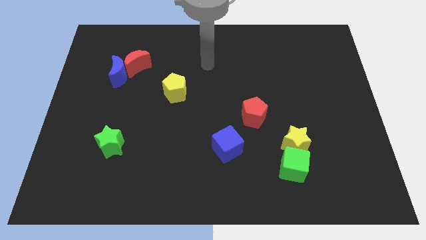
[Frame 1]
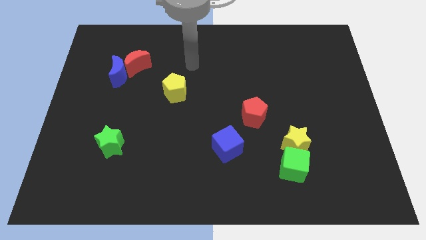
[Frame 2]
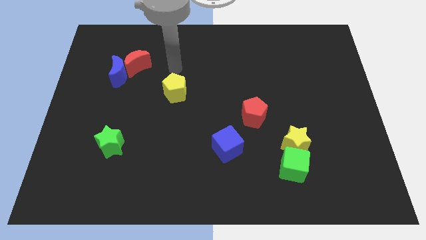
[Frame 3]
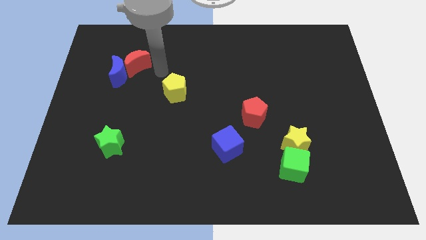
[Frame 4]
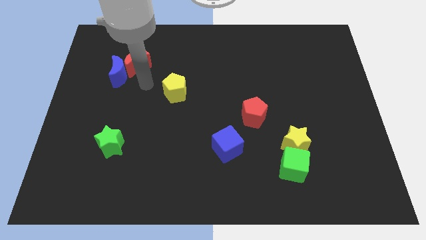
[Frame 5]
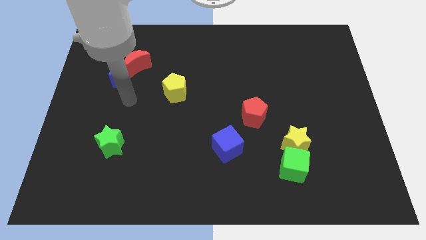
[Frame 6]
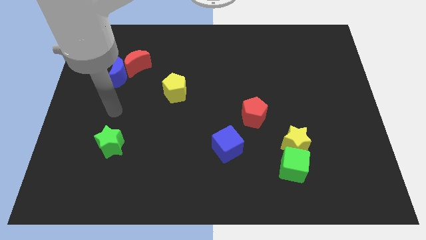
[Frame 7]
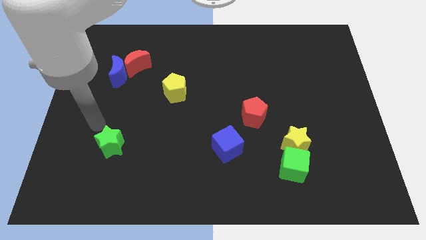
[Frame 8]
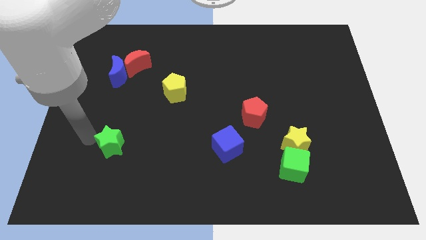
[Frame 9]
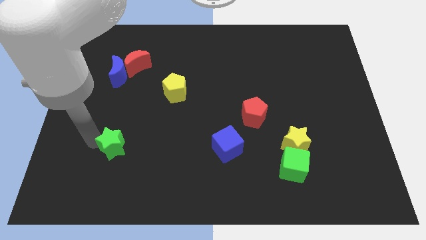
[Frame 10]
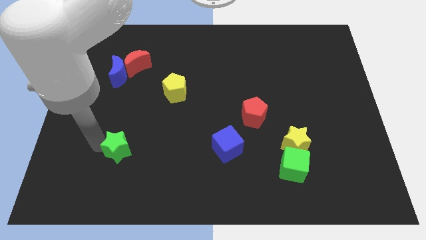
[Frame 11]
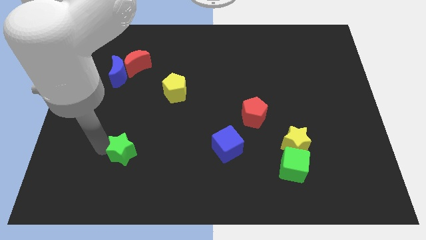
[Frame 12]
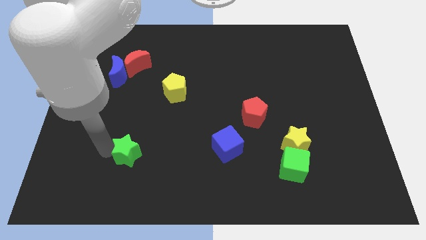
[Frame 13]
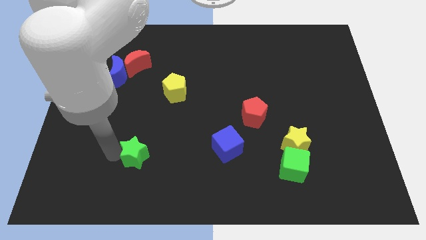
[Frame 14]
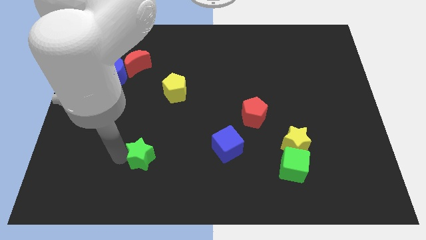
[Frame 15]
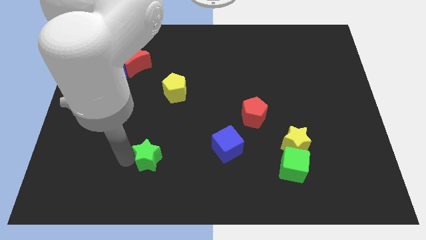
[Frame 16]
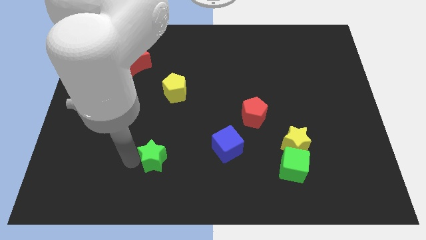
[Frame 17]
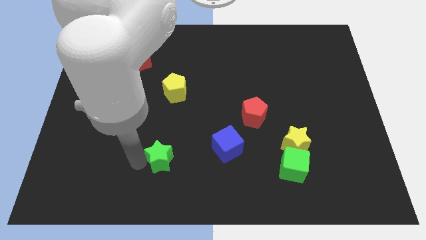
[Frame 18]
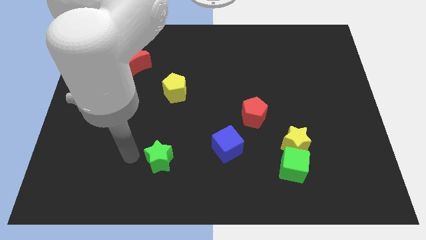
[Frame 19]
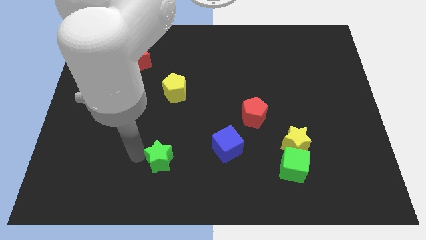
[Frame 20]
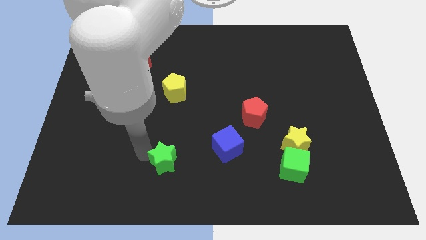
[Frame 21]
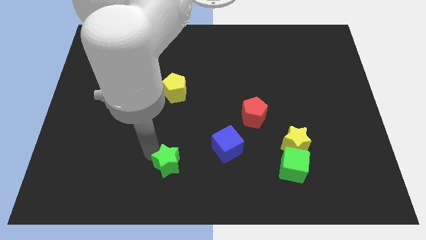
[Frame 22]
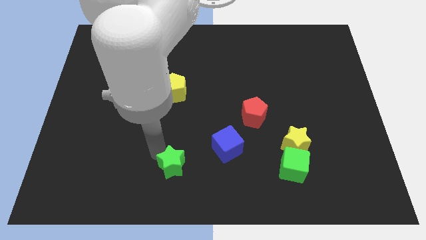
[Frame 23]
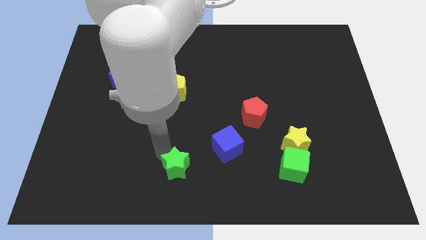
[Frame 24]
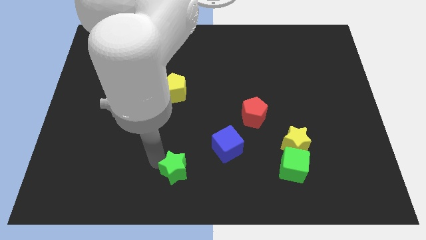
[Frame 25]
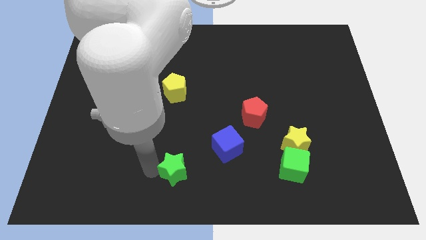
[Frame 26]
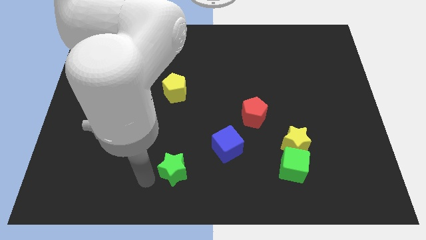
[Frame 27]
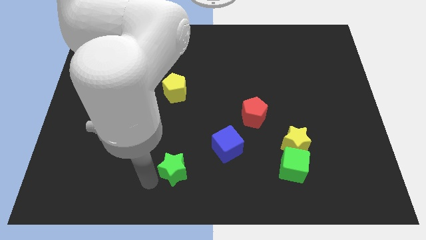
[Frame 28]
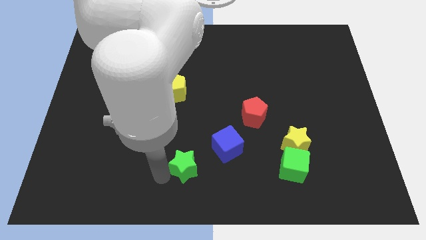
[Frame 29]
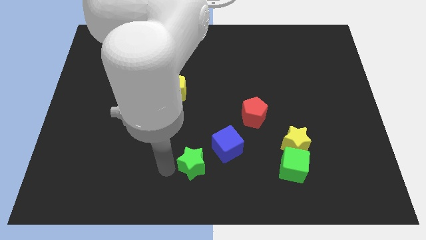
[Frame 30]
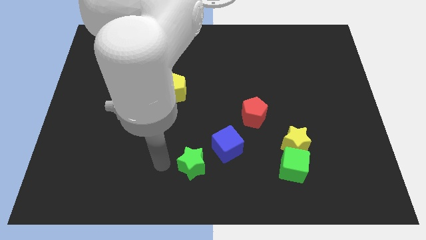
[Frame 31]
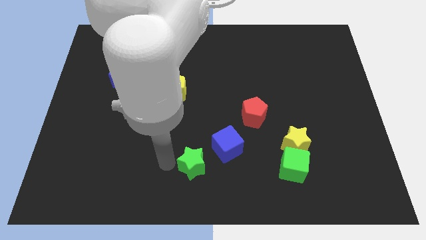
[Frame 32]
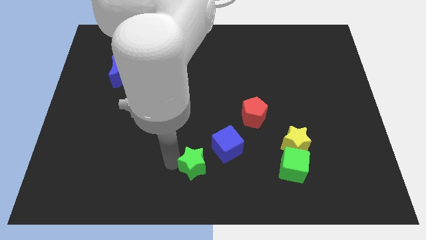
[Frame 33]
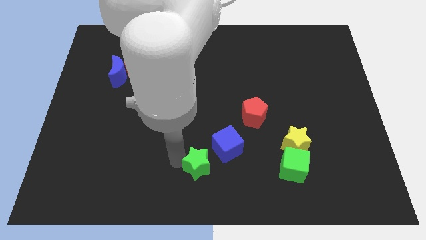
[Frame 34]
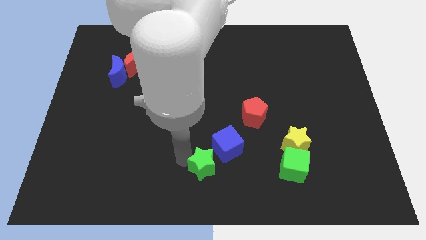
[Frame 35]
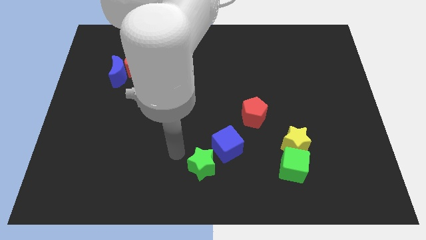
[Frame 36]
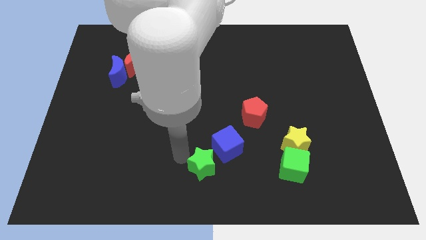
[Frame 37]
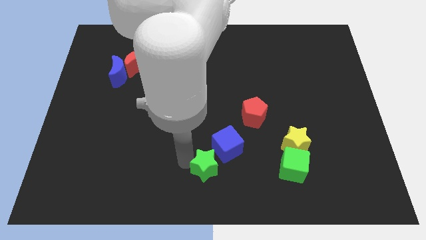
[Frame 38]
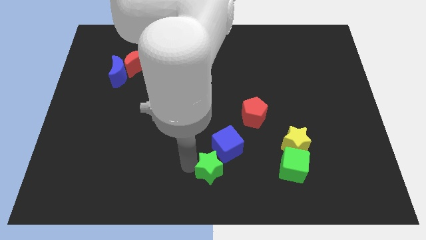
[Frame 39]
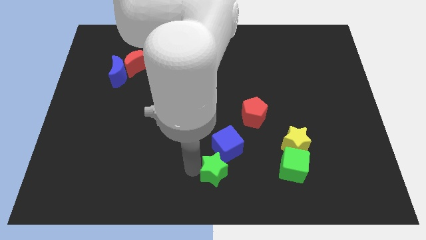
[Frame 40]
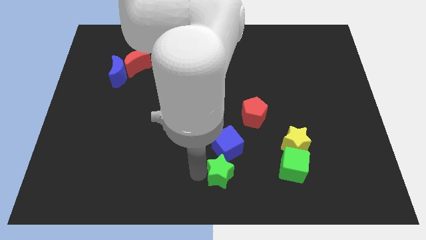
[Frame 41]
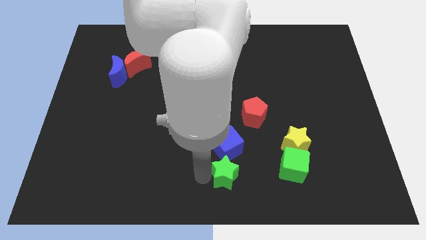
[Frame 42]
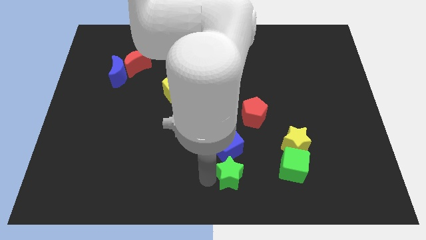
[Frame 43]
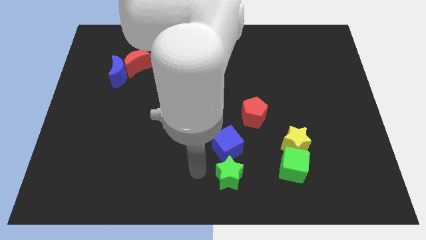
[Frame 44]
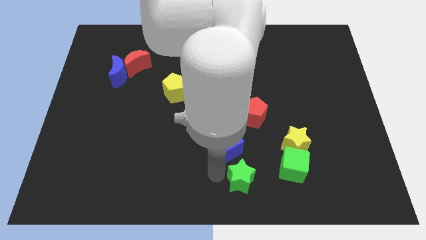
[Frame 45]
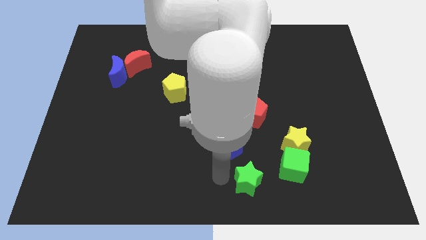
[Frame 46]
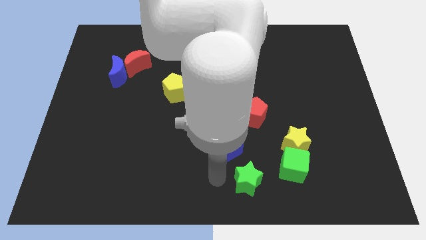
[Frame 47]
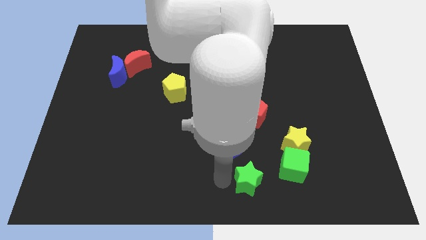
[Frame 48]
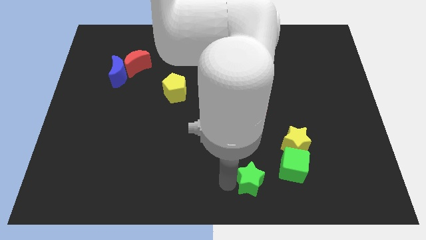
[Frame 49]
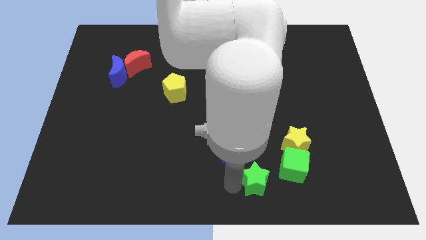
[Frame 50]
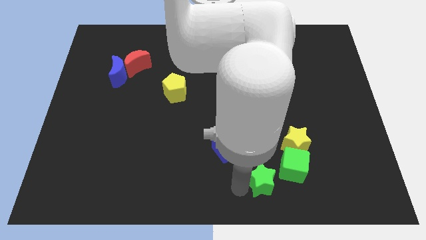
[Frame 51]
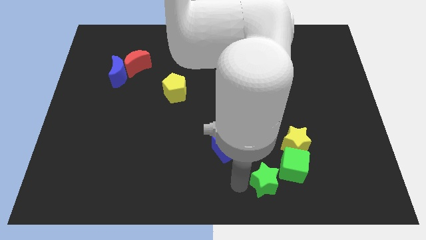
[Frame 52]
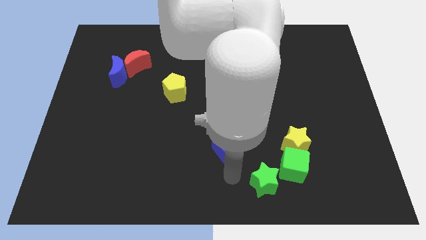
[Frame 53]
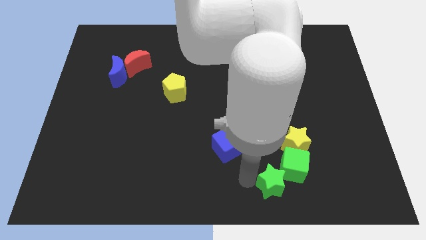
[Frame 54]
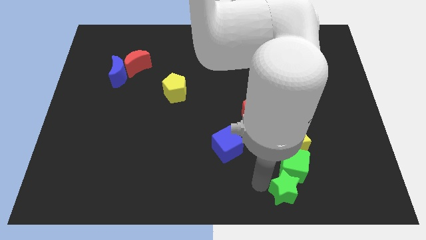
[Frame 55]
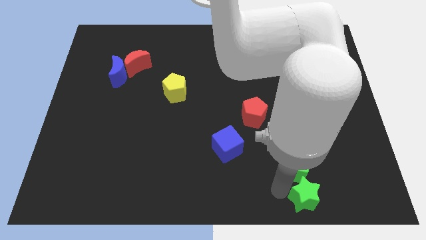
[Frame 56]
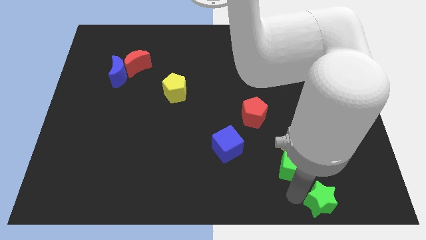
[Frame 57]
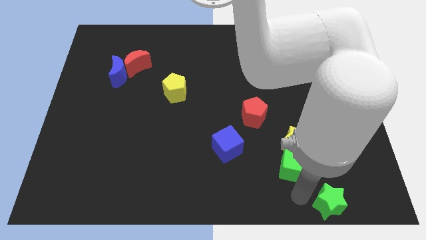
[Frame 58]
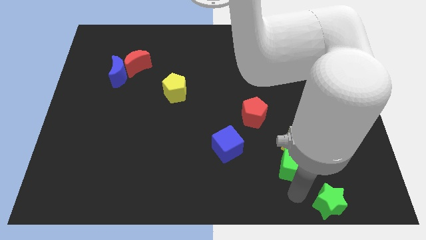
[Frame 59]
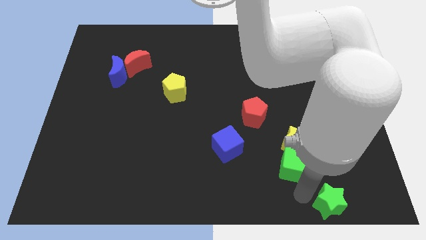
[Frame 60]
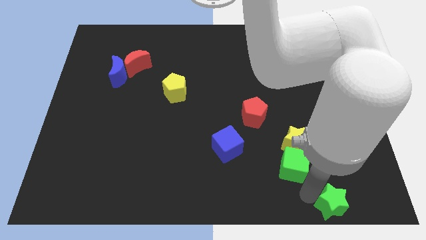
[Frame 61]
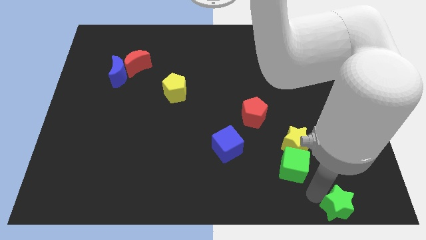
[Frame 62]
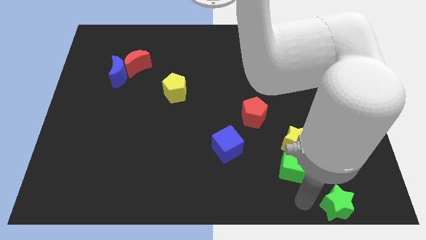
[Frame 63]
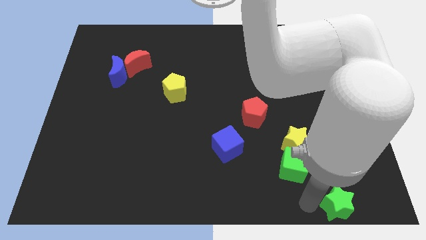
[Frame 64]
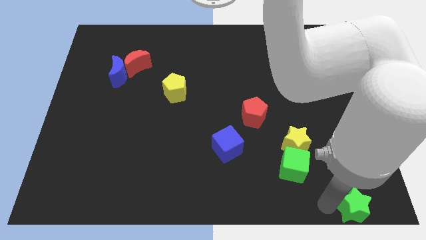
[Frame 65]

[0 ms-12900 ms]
slide the green star to the bottom right
